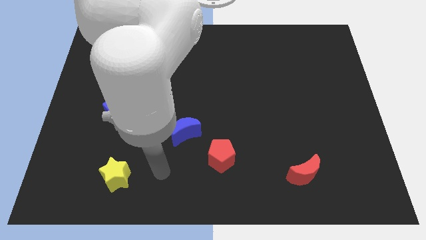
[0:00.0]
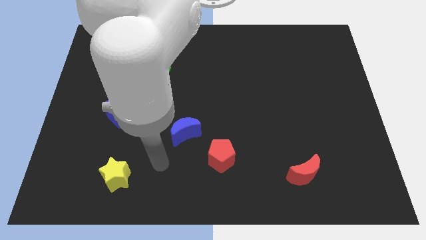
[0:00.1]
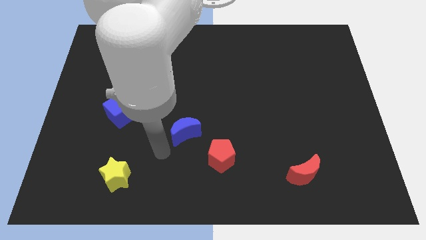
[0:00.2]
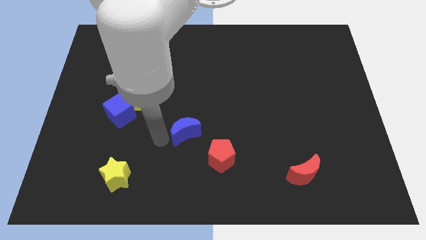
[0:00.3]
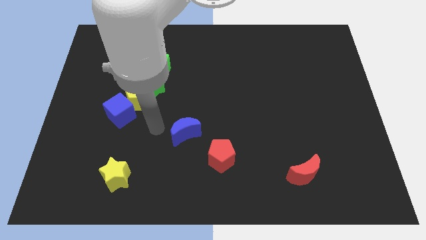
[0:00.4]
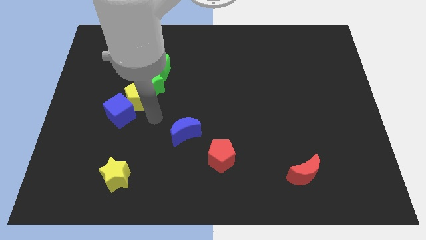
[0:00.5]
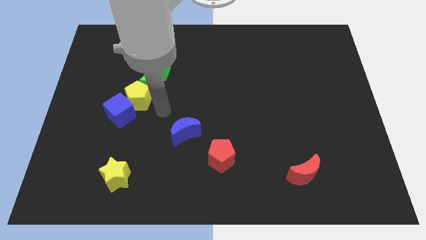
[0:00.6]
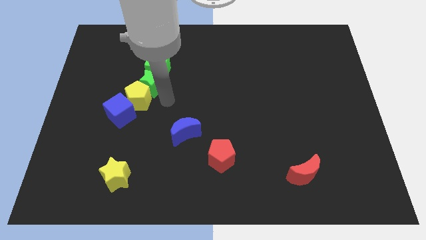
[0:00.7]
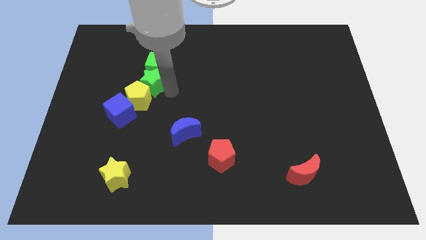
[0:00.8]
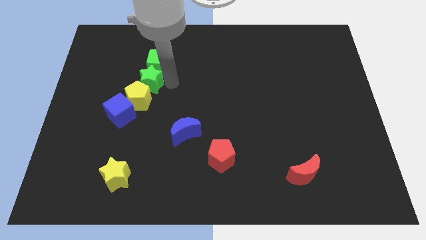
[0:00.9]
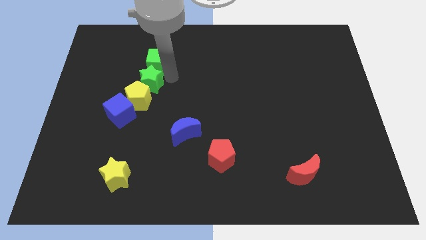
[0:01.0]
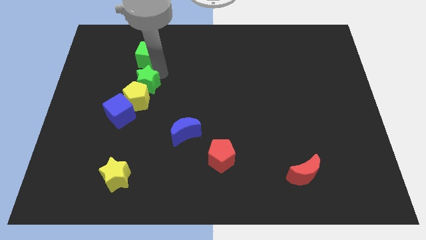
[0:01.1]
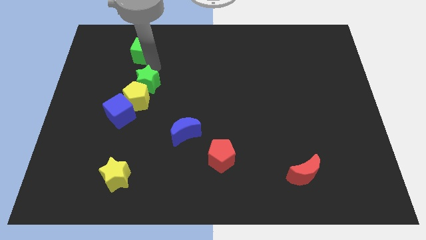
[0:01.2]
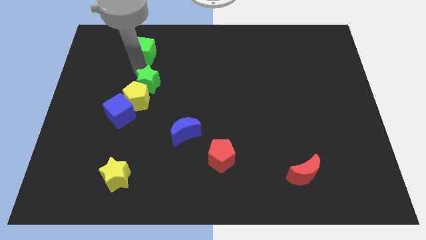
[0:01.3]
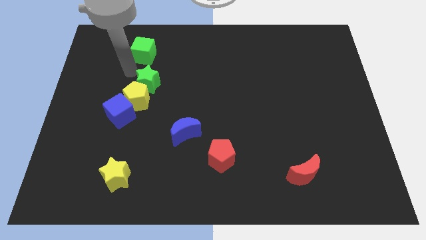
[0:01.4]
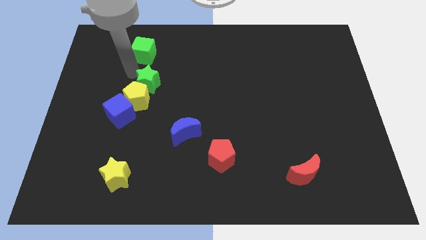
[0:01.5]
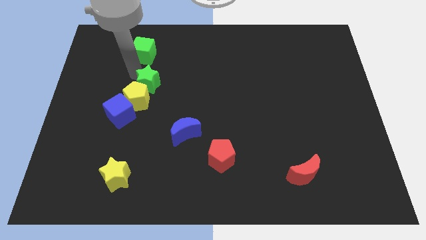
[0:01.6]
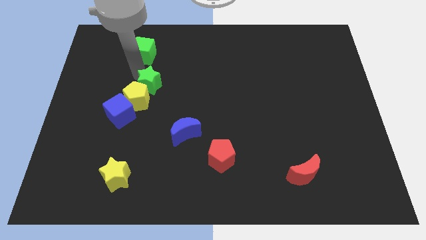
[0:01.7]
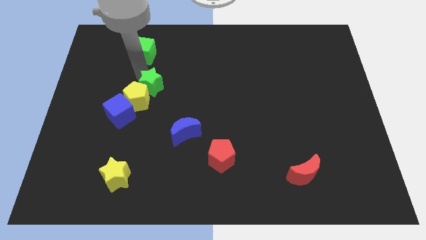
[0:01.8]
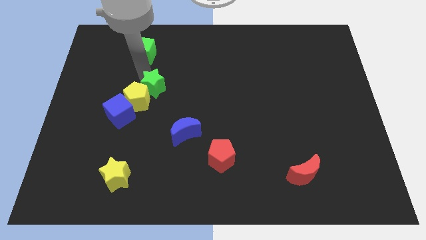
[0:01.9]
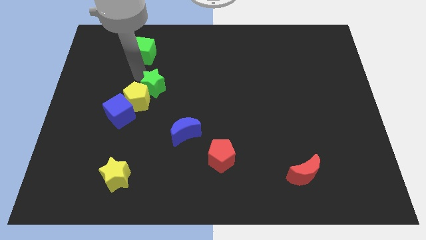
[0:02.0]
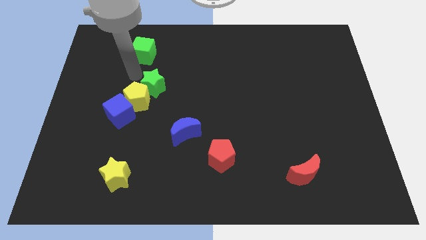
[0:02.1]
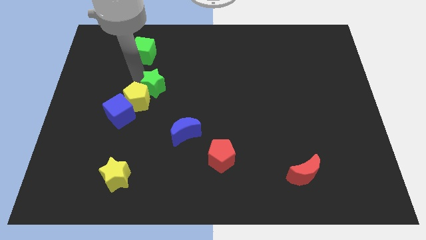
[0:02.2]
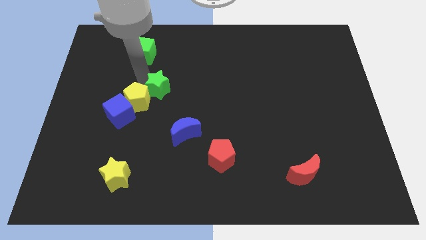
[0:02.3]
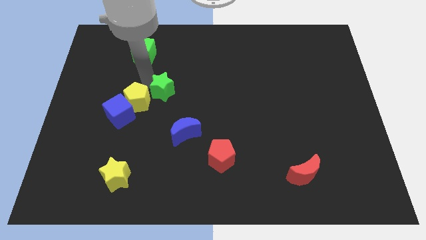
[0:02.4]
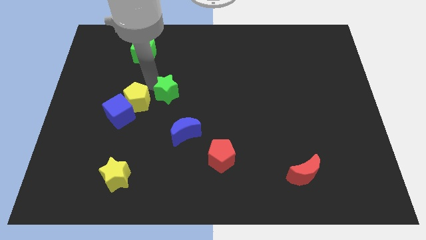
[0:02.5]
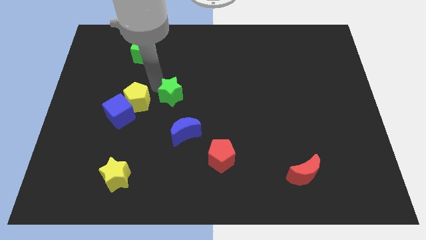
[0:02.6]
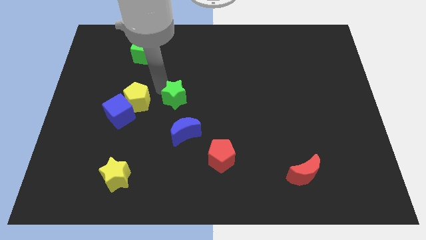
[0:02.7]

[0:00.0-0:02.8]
separate the green star from the yellow pentagon and green cube

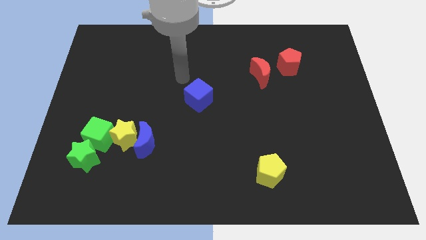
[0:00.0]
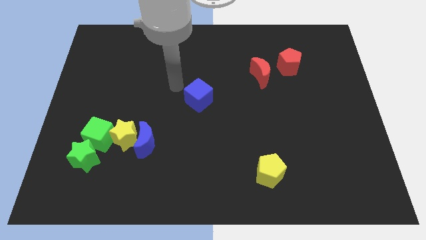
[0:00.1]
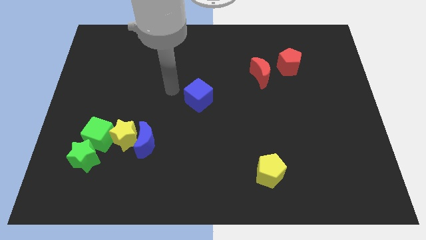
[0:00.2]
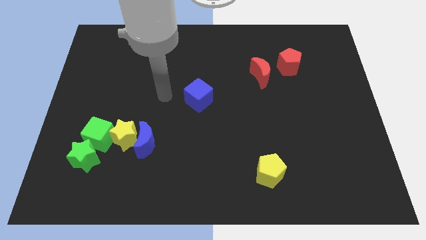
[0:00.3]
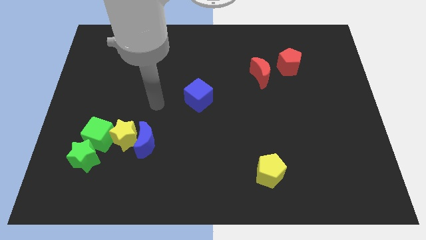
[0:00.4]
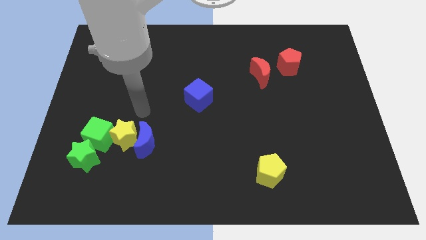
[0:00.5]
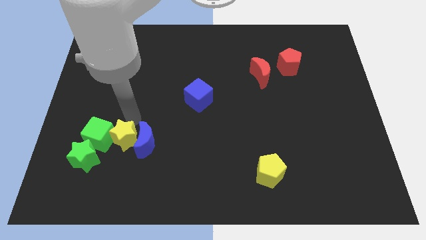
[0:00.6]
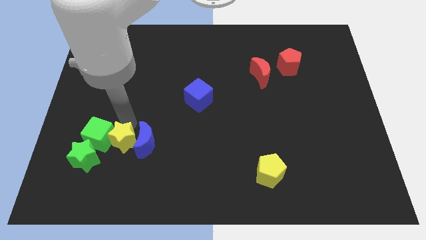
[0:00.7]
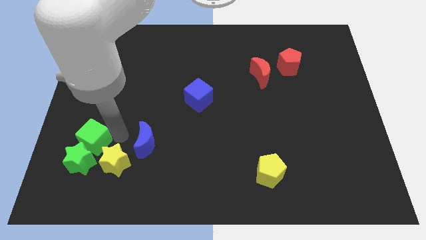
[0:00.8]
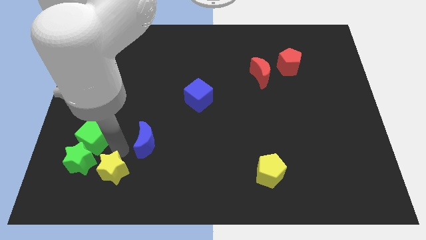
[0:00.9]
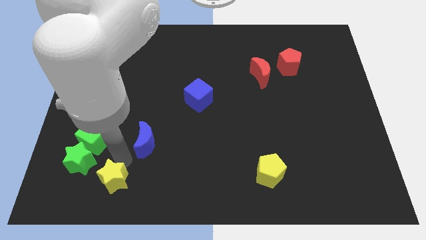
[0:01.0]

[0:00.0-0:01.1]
move the blue moon away from the yellow star

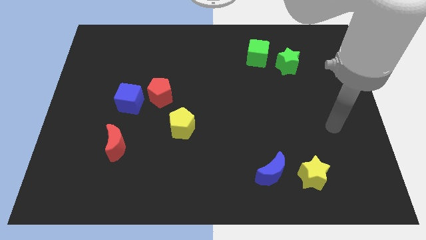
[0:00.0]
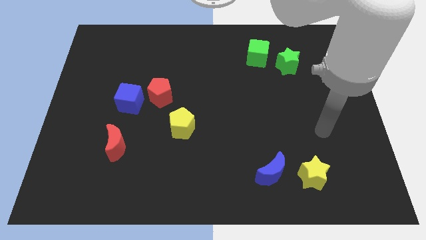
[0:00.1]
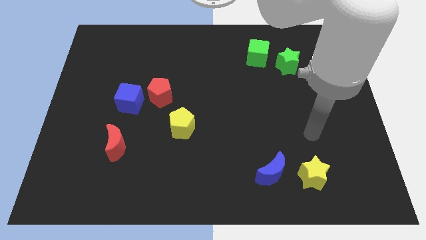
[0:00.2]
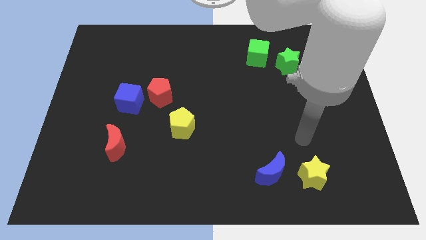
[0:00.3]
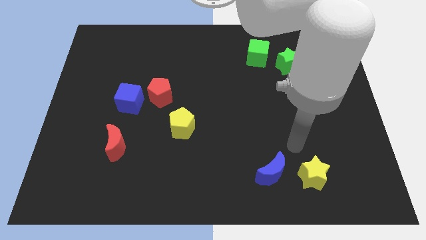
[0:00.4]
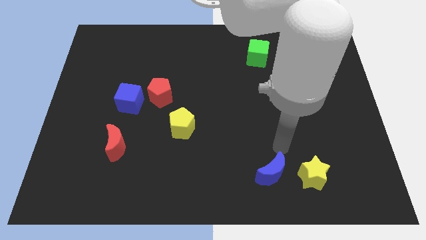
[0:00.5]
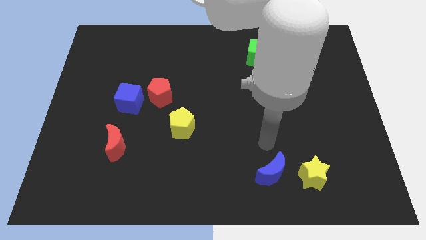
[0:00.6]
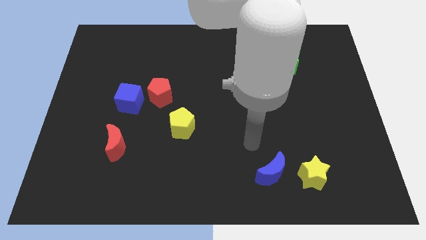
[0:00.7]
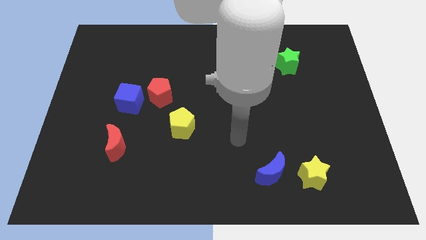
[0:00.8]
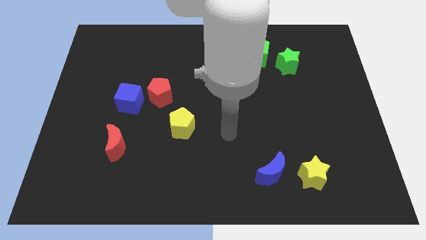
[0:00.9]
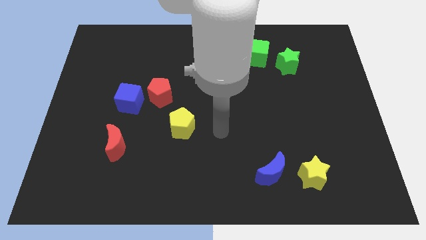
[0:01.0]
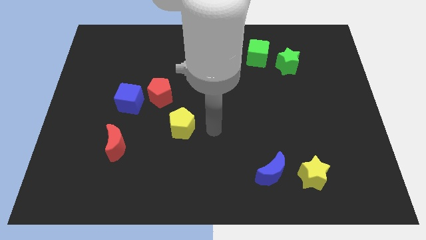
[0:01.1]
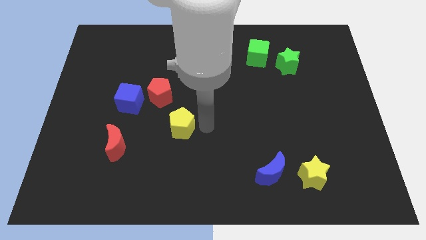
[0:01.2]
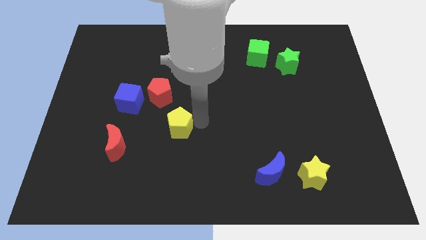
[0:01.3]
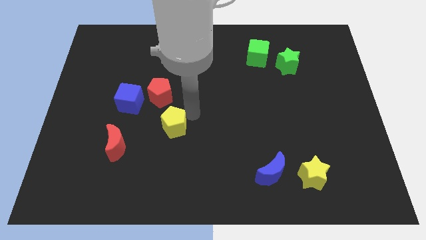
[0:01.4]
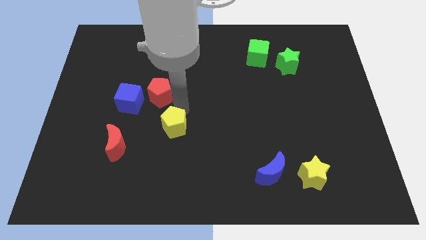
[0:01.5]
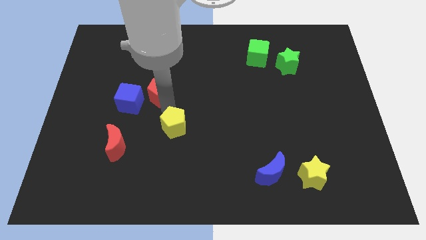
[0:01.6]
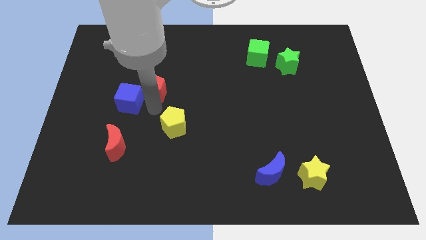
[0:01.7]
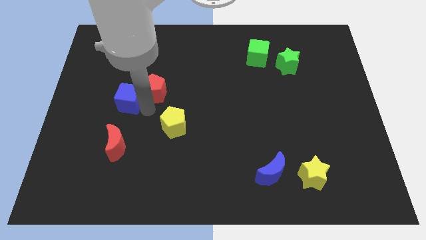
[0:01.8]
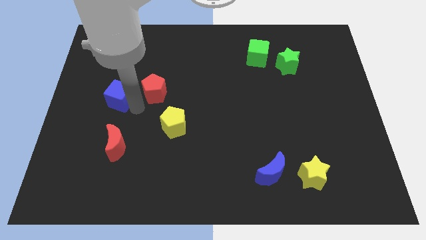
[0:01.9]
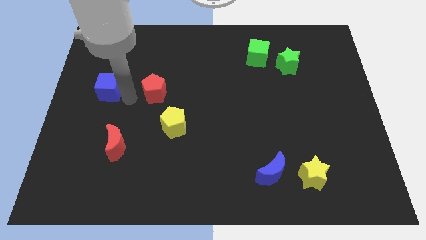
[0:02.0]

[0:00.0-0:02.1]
separate the red pentagon from the blue cube

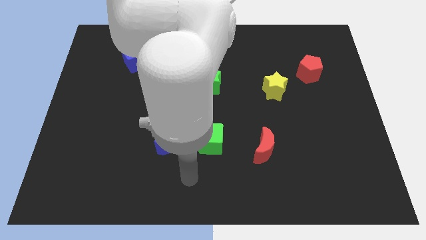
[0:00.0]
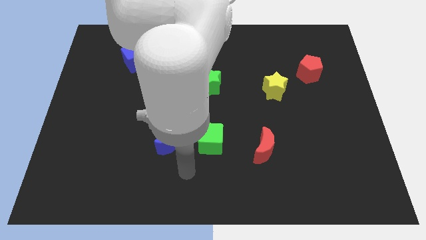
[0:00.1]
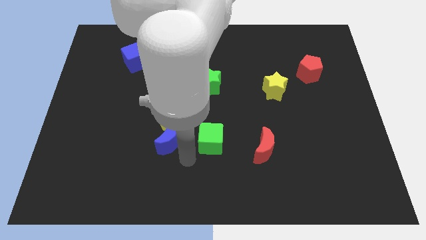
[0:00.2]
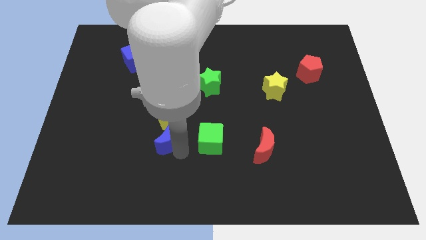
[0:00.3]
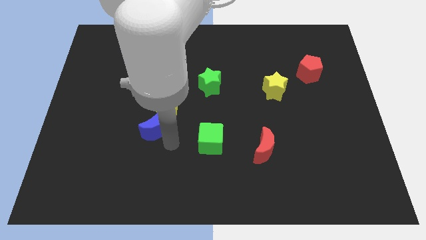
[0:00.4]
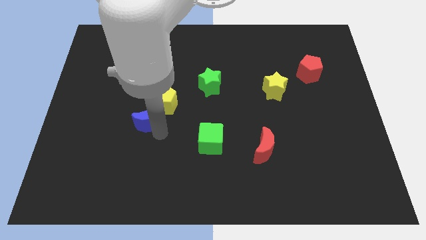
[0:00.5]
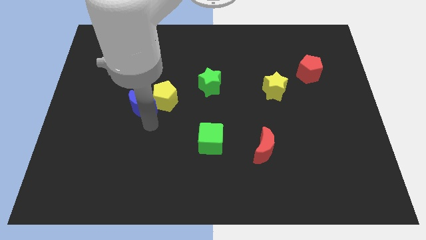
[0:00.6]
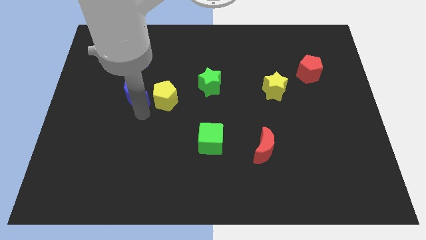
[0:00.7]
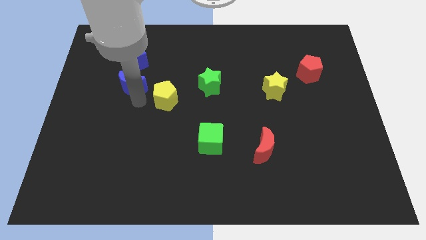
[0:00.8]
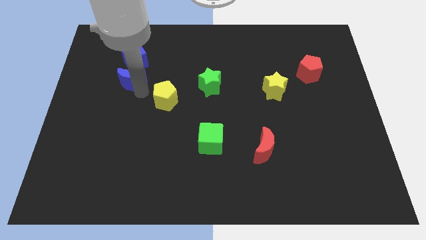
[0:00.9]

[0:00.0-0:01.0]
pull the yellow pentagon apart from the blue moon

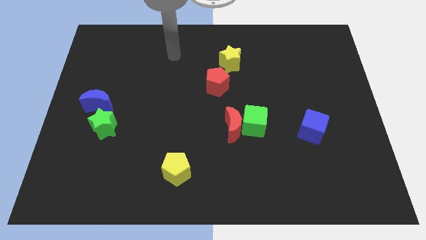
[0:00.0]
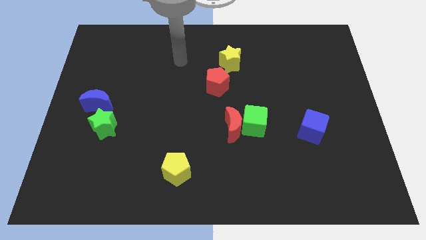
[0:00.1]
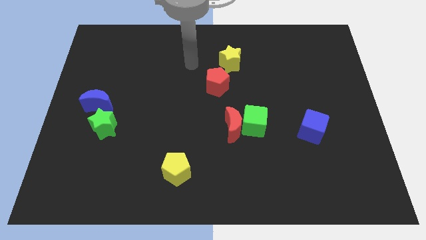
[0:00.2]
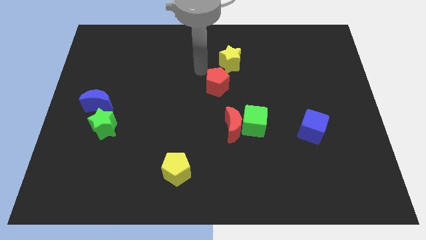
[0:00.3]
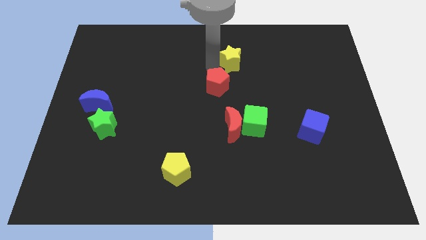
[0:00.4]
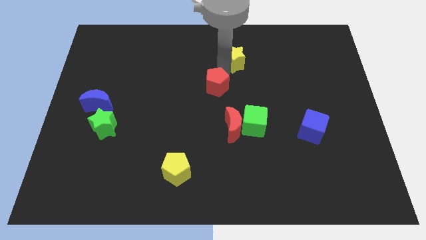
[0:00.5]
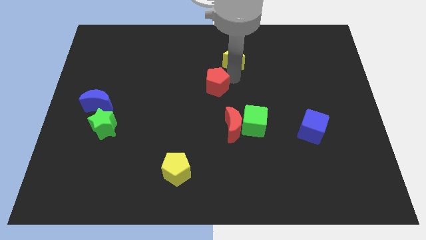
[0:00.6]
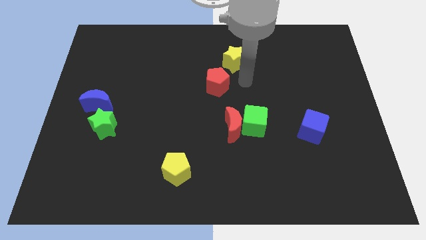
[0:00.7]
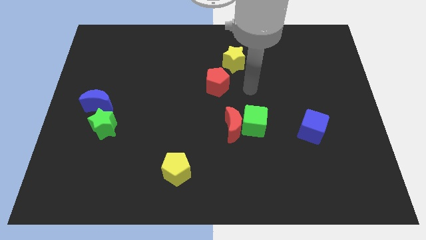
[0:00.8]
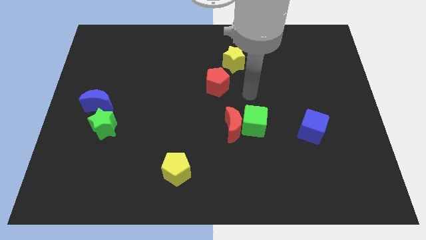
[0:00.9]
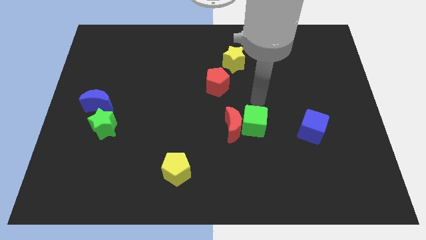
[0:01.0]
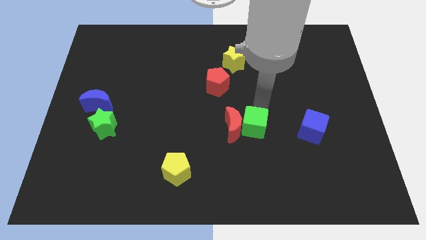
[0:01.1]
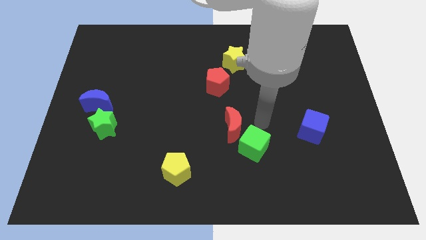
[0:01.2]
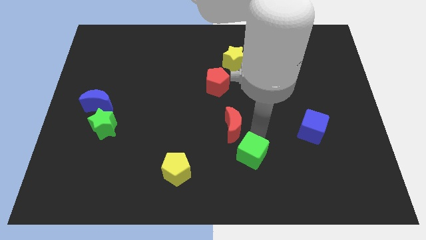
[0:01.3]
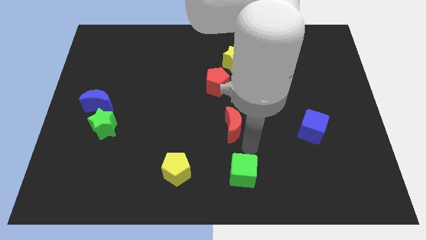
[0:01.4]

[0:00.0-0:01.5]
separate the red moon from the green cube

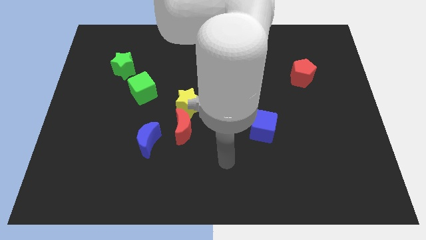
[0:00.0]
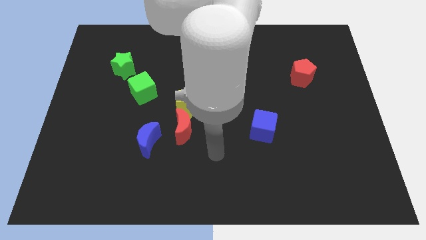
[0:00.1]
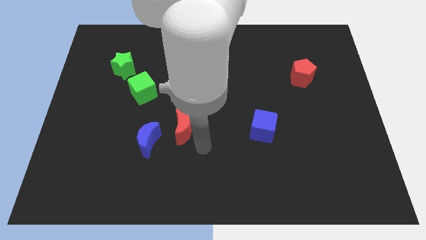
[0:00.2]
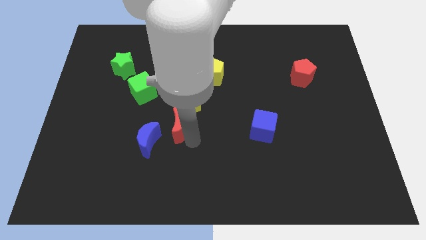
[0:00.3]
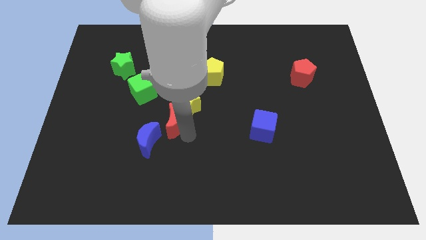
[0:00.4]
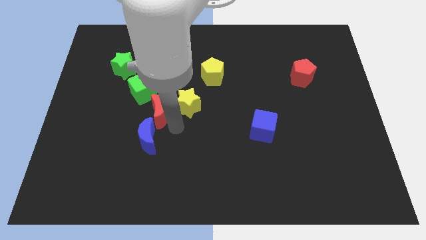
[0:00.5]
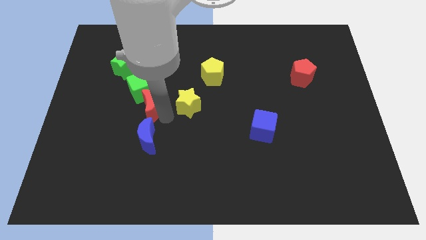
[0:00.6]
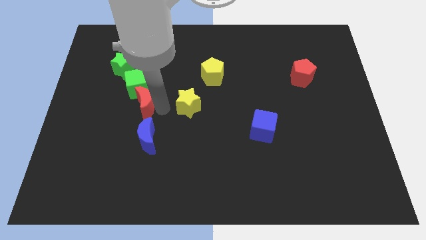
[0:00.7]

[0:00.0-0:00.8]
separate the yellow star from the red moon
